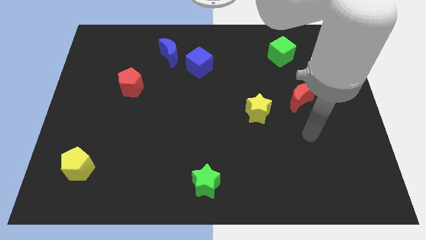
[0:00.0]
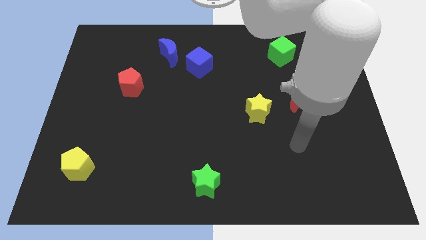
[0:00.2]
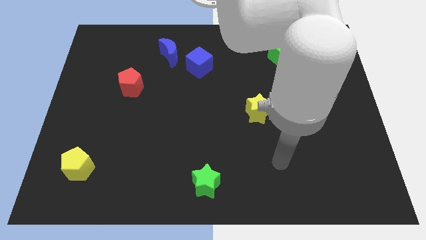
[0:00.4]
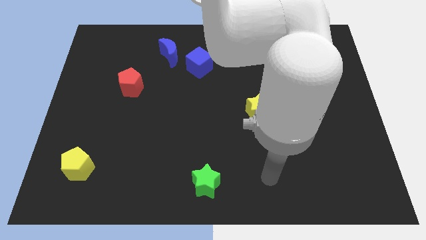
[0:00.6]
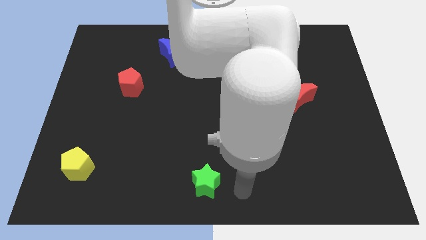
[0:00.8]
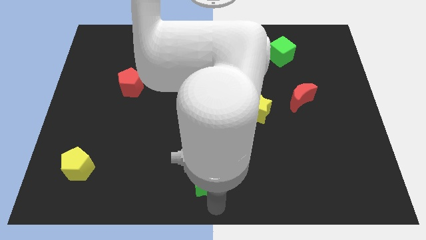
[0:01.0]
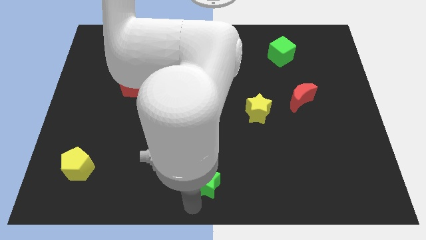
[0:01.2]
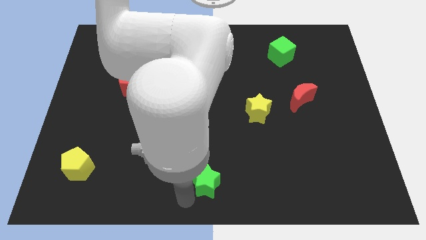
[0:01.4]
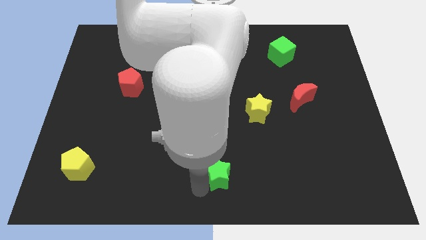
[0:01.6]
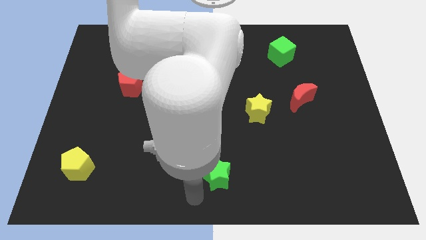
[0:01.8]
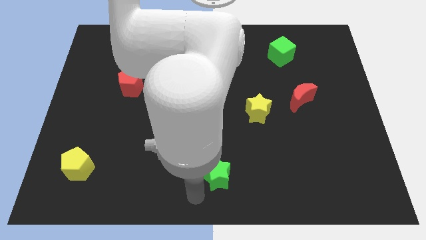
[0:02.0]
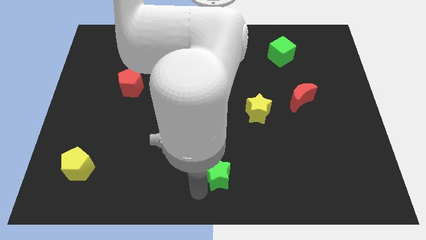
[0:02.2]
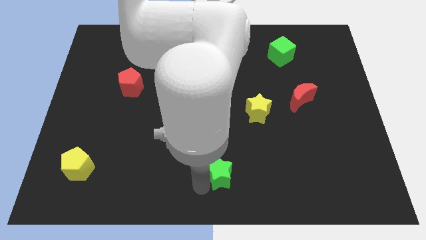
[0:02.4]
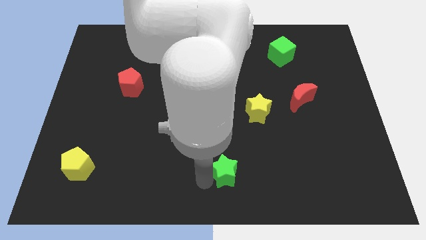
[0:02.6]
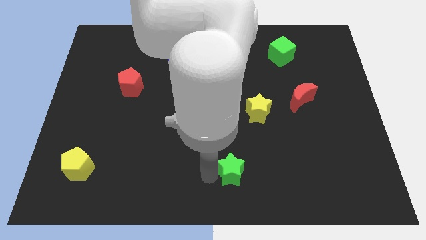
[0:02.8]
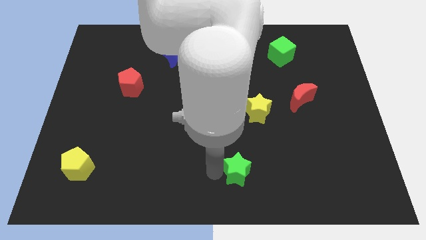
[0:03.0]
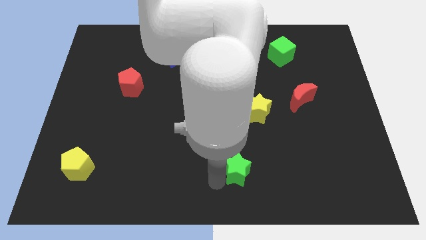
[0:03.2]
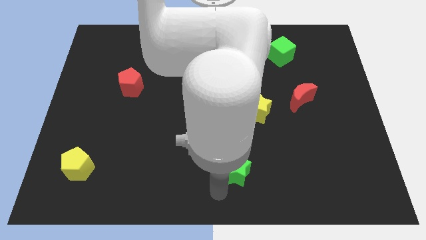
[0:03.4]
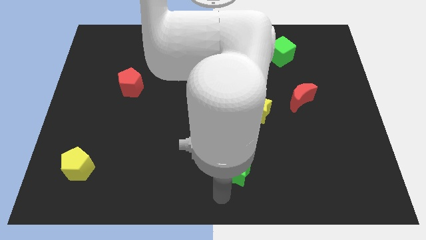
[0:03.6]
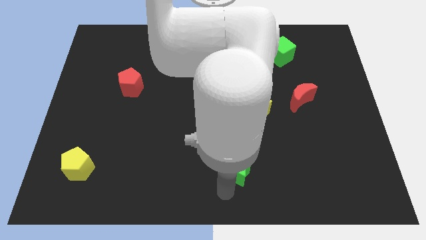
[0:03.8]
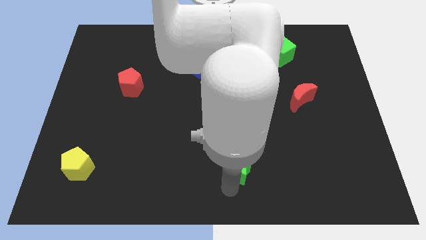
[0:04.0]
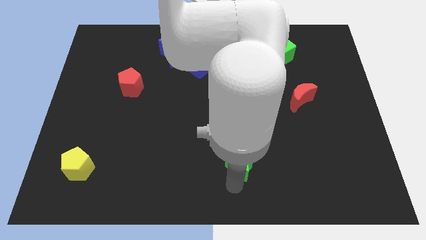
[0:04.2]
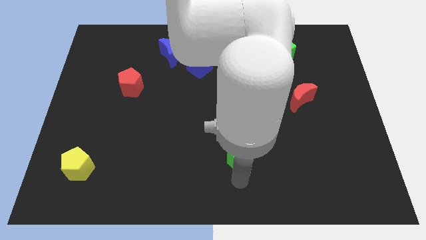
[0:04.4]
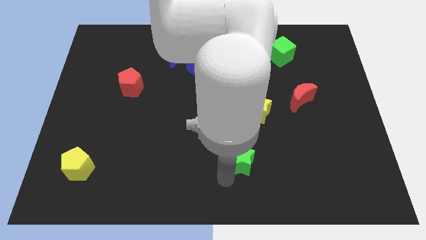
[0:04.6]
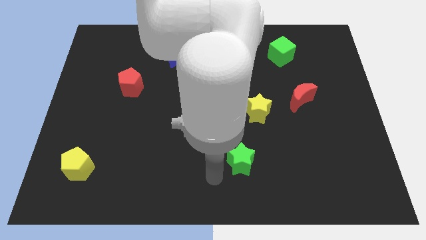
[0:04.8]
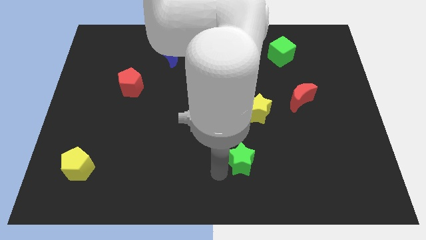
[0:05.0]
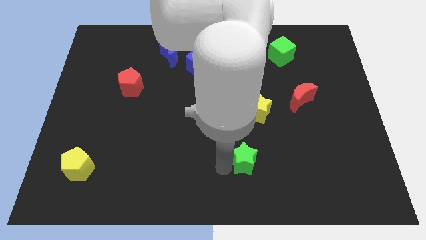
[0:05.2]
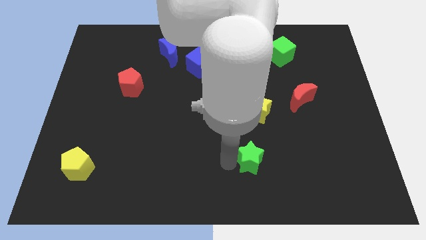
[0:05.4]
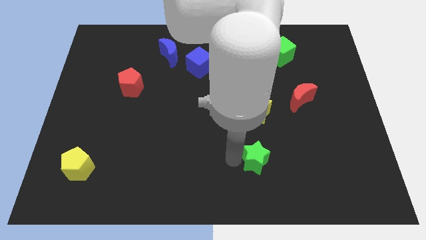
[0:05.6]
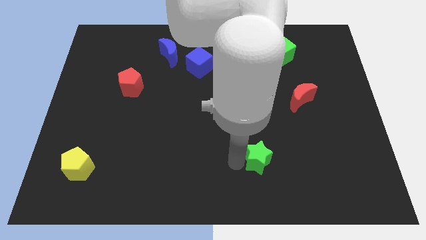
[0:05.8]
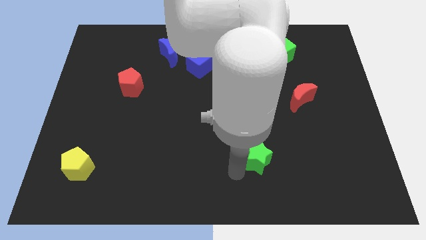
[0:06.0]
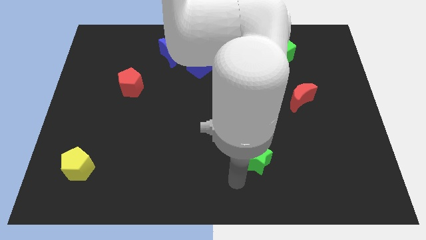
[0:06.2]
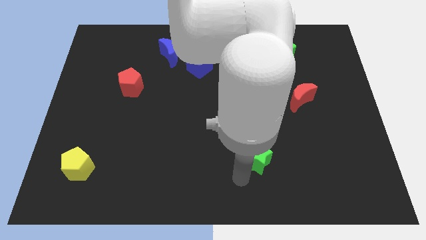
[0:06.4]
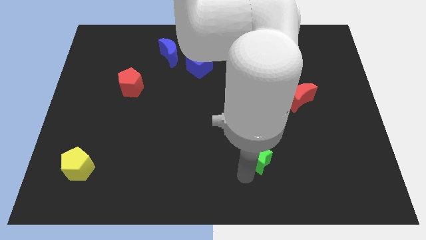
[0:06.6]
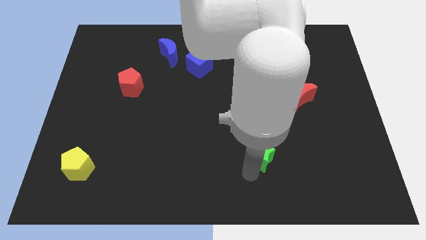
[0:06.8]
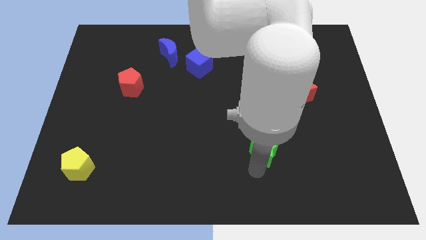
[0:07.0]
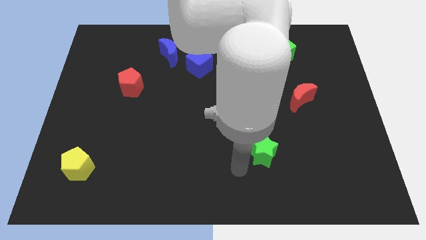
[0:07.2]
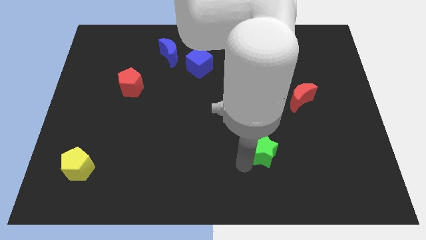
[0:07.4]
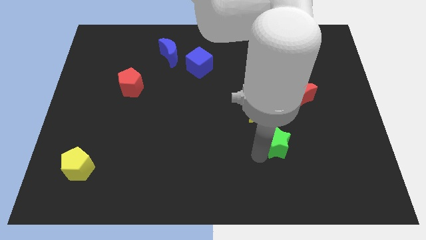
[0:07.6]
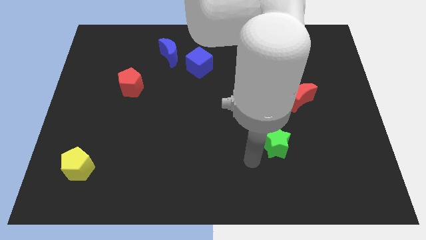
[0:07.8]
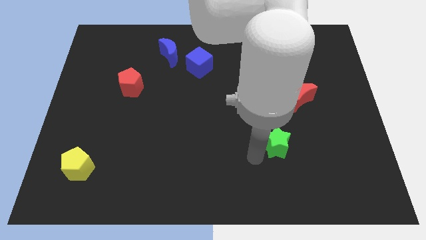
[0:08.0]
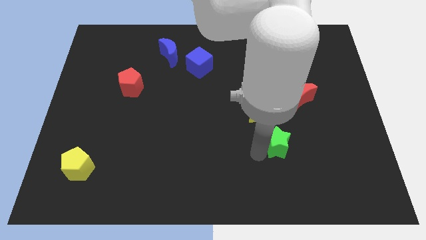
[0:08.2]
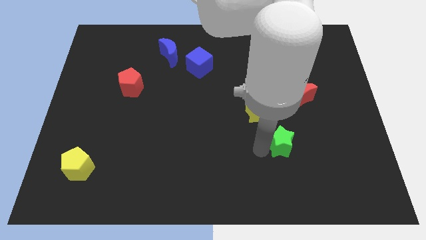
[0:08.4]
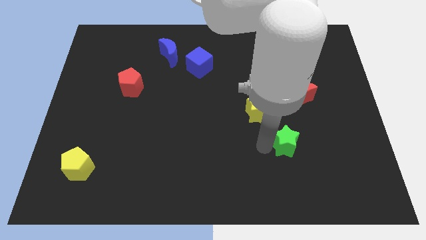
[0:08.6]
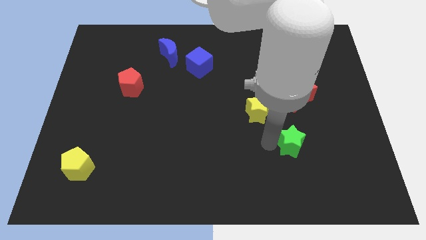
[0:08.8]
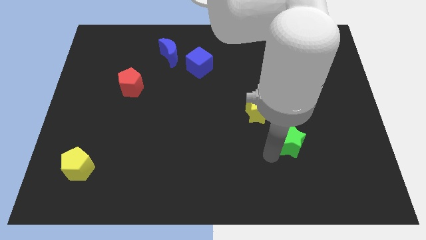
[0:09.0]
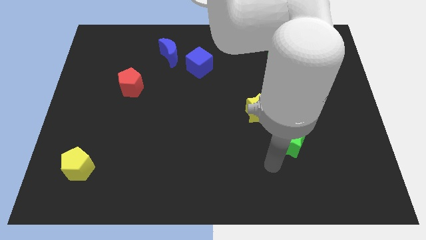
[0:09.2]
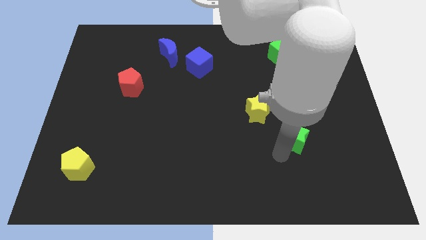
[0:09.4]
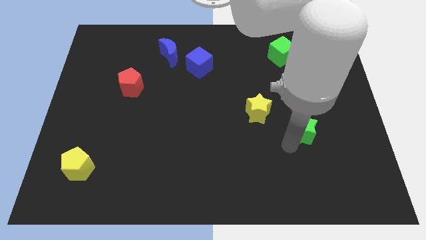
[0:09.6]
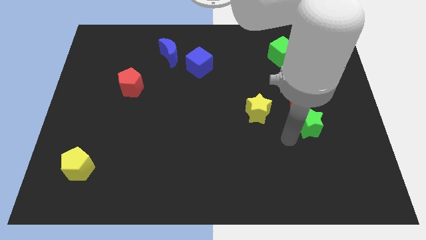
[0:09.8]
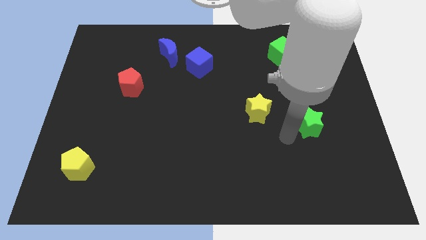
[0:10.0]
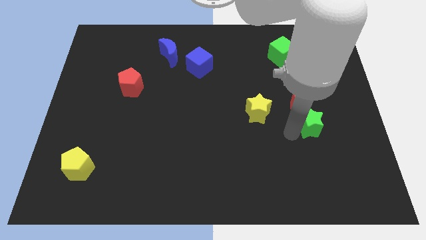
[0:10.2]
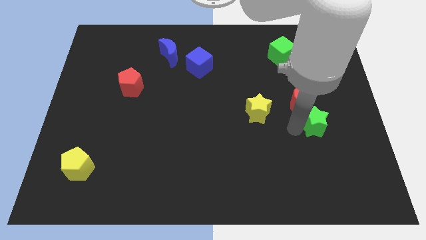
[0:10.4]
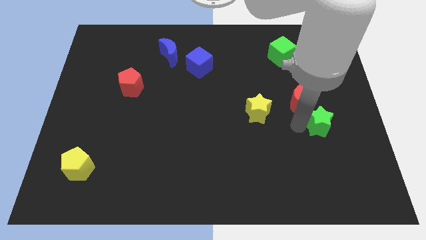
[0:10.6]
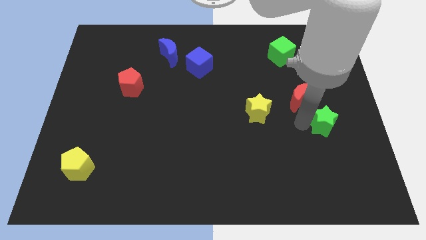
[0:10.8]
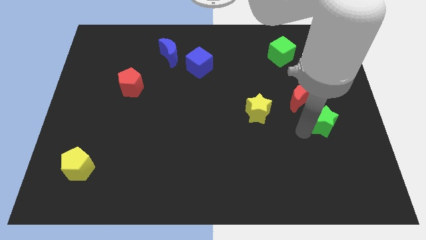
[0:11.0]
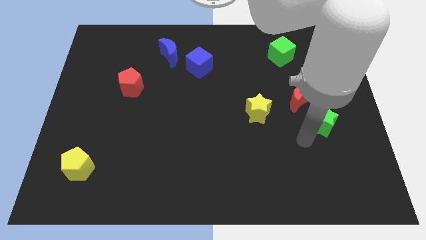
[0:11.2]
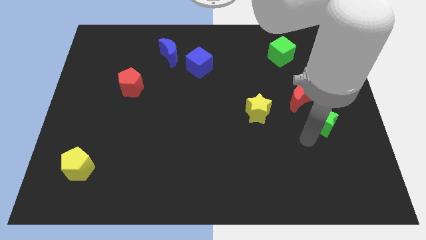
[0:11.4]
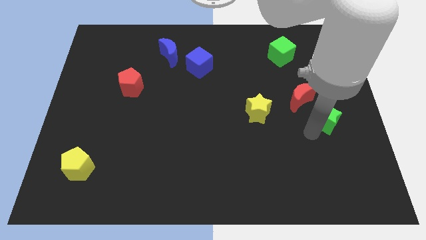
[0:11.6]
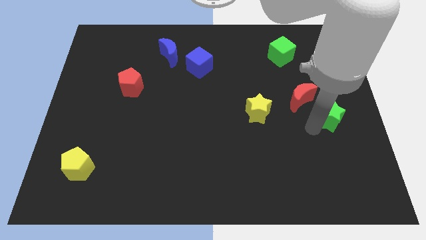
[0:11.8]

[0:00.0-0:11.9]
slide the green star to the right side of the board

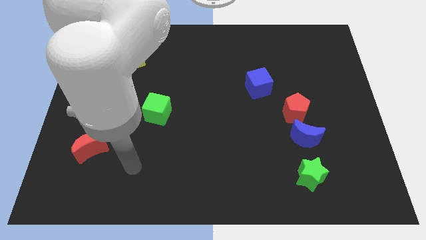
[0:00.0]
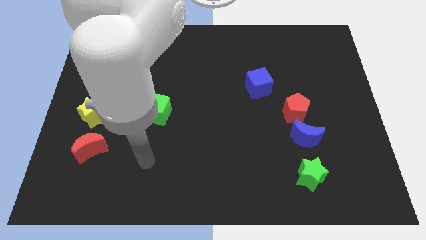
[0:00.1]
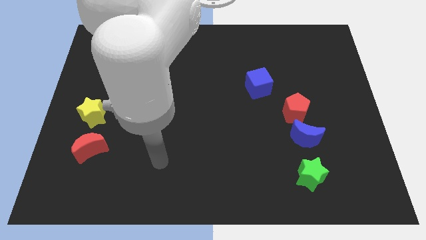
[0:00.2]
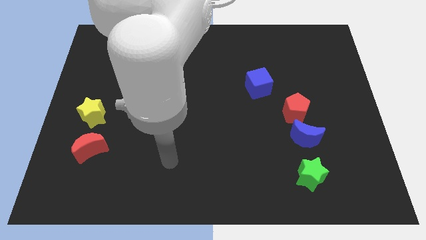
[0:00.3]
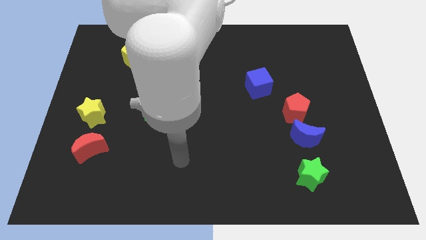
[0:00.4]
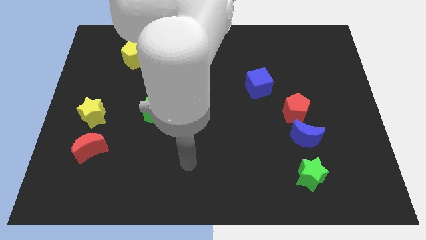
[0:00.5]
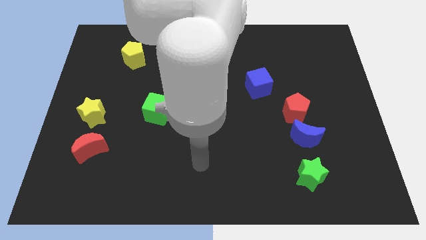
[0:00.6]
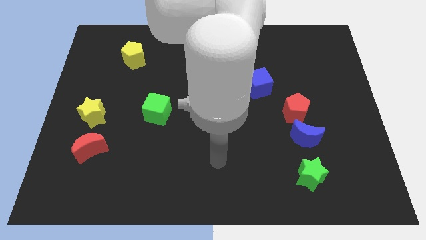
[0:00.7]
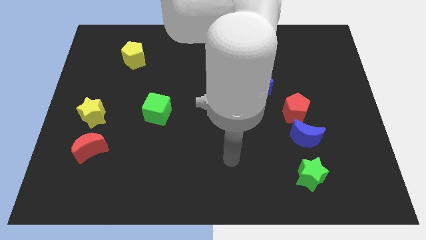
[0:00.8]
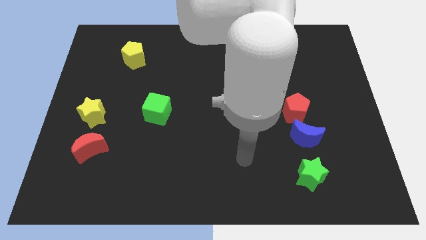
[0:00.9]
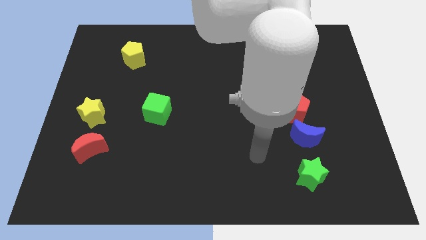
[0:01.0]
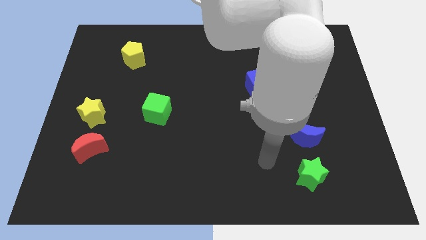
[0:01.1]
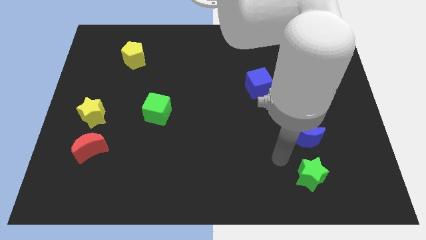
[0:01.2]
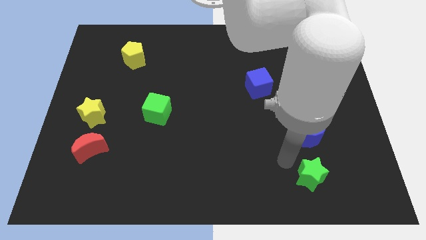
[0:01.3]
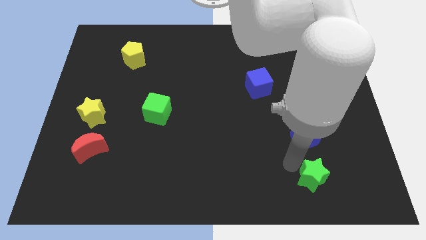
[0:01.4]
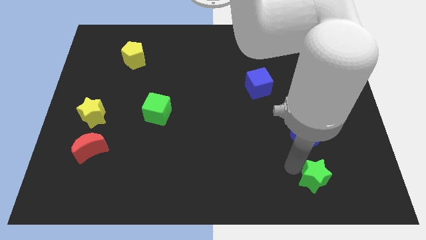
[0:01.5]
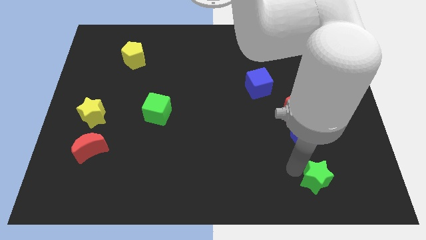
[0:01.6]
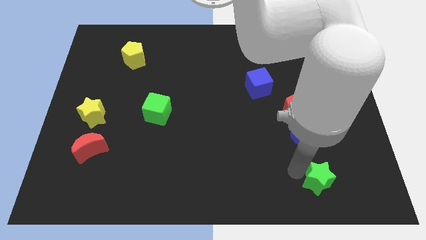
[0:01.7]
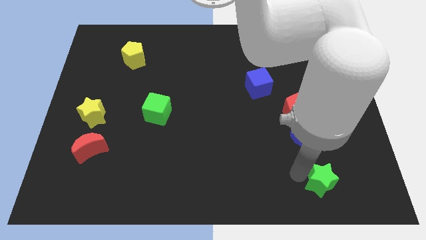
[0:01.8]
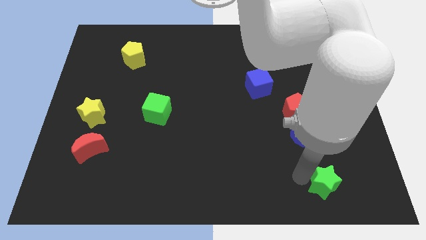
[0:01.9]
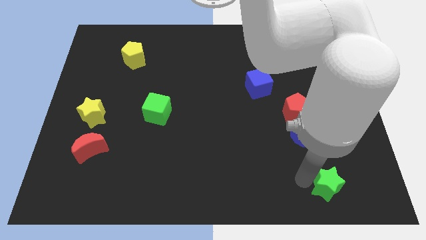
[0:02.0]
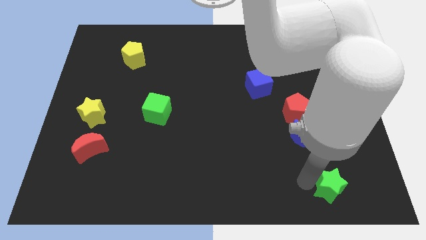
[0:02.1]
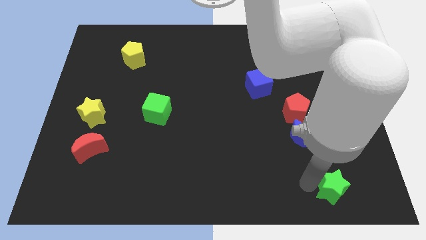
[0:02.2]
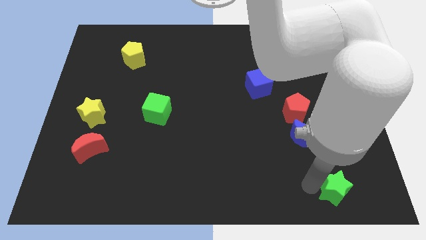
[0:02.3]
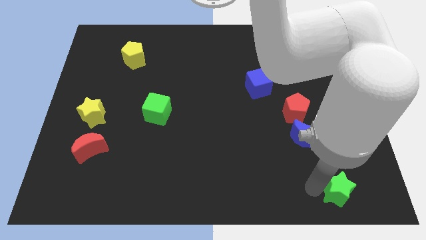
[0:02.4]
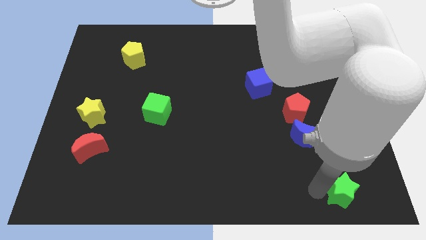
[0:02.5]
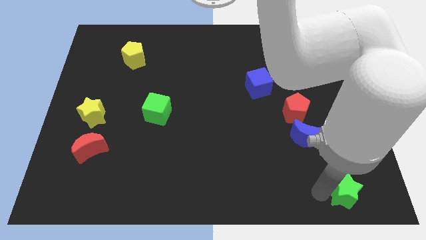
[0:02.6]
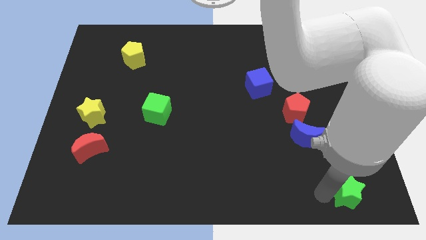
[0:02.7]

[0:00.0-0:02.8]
push the green star to the lower right corner
